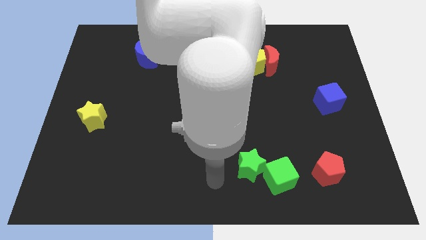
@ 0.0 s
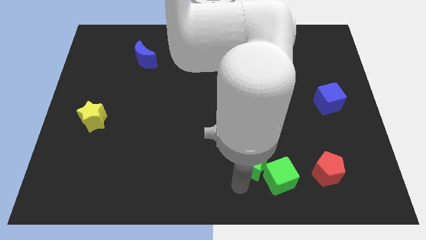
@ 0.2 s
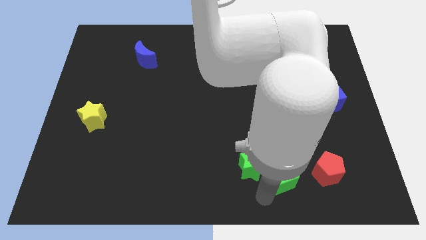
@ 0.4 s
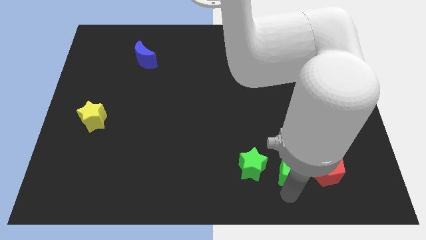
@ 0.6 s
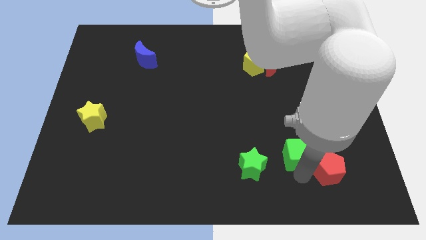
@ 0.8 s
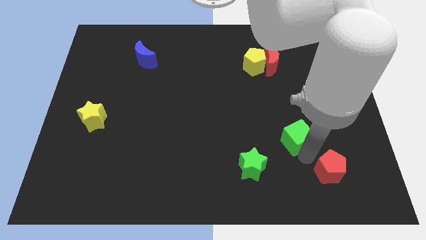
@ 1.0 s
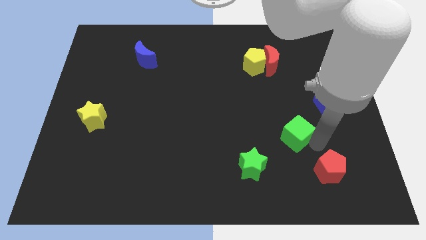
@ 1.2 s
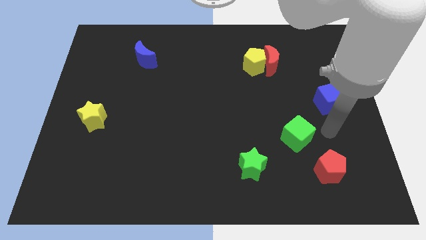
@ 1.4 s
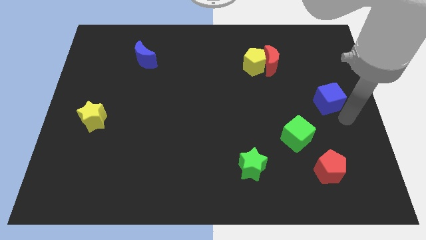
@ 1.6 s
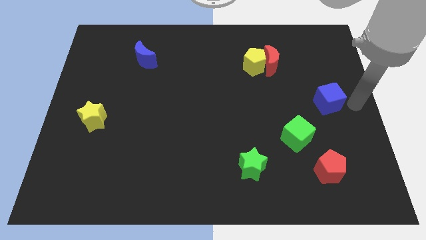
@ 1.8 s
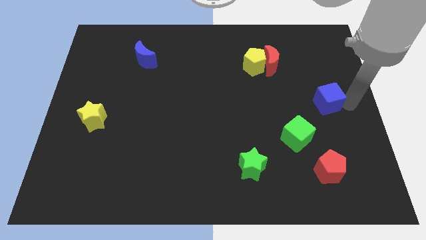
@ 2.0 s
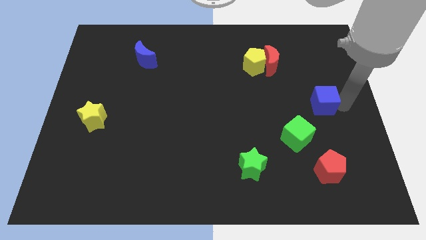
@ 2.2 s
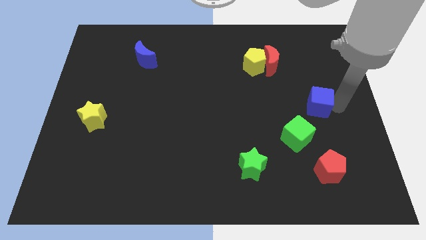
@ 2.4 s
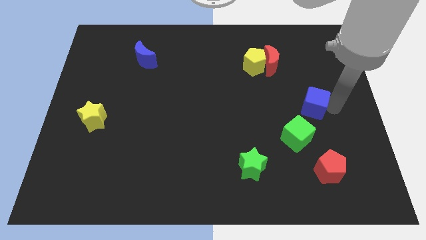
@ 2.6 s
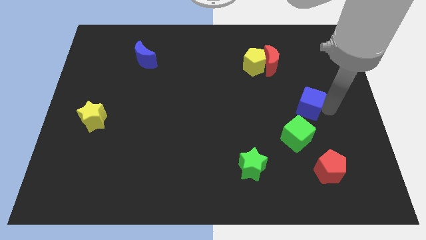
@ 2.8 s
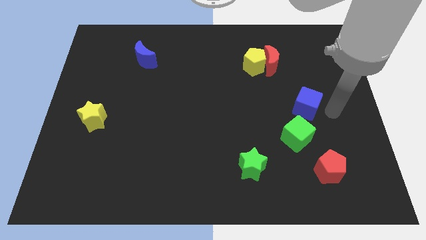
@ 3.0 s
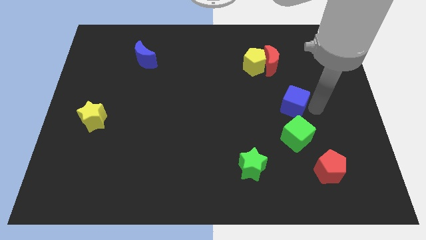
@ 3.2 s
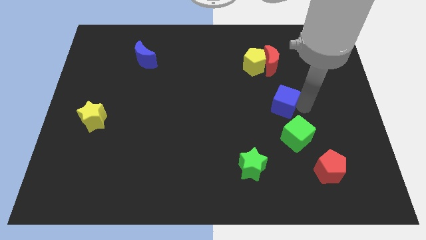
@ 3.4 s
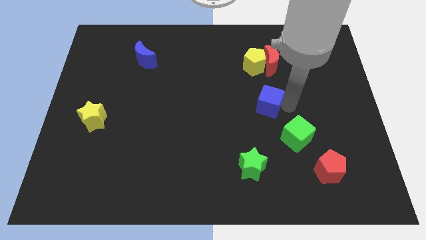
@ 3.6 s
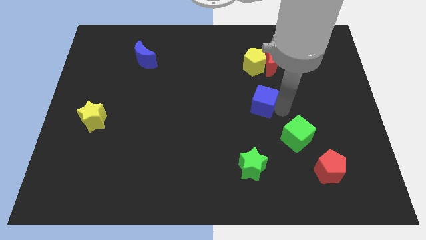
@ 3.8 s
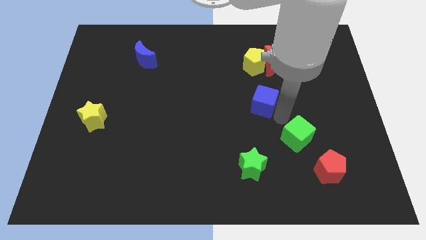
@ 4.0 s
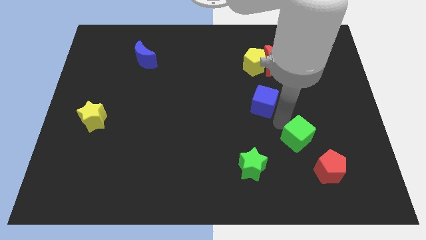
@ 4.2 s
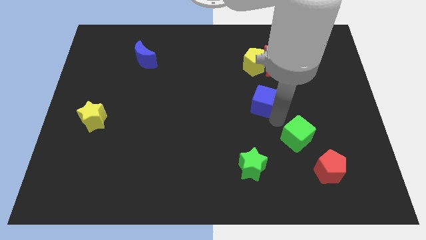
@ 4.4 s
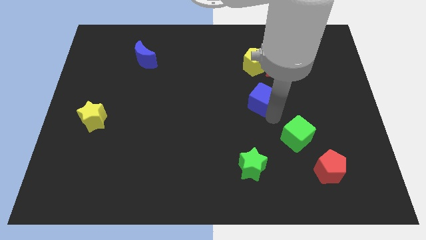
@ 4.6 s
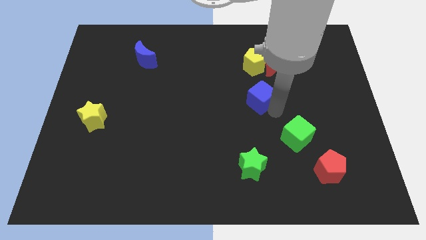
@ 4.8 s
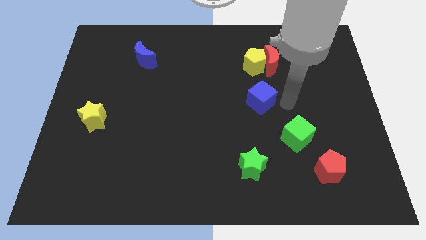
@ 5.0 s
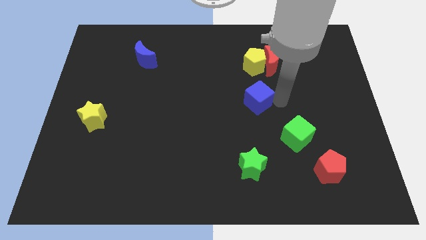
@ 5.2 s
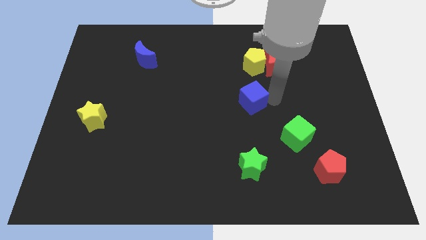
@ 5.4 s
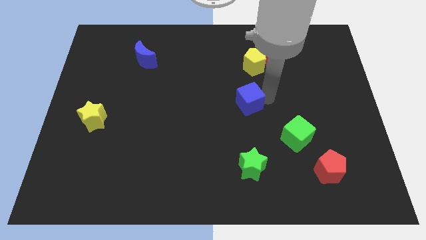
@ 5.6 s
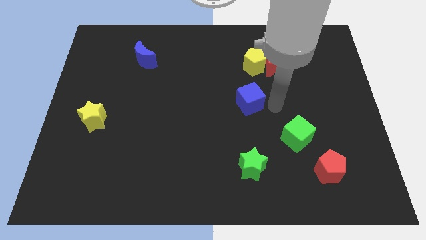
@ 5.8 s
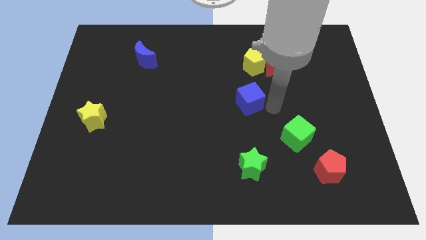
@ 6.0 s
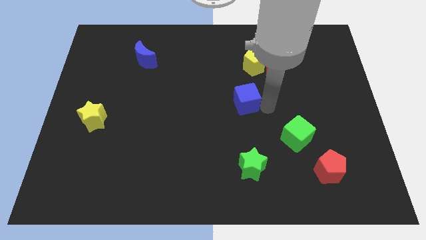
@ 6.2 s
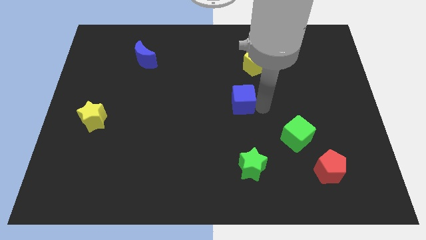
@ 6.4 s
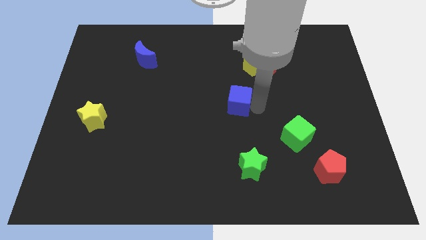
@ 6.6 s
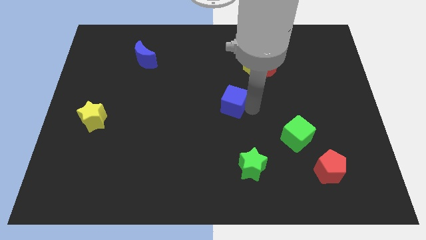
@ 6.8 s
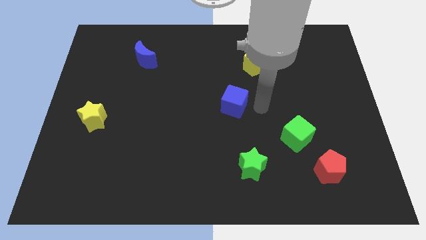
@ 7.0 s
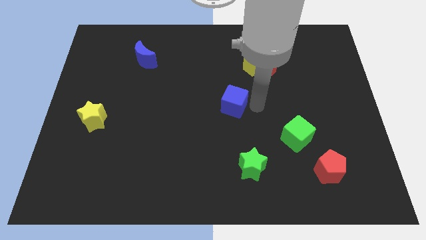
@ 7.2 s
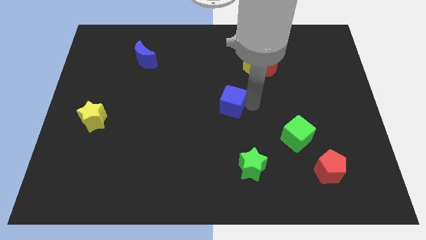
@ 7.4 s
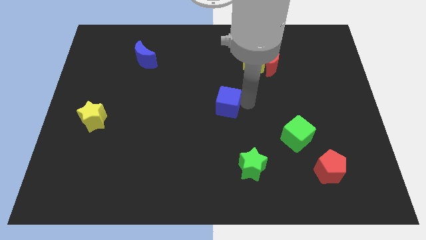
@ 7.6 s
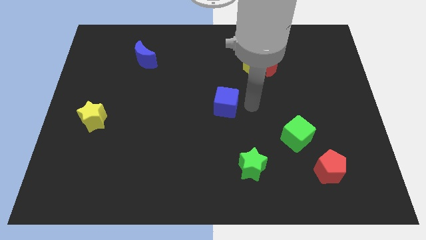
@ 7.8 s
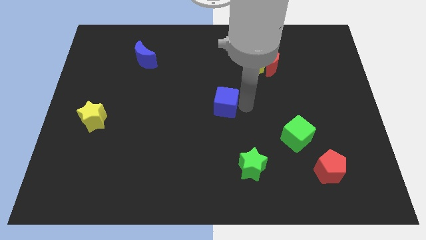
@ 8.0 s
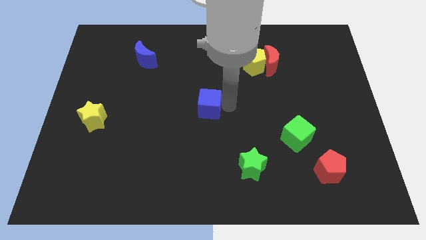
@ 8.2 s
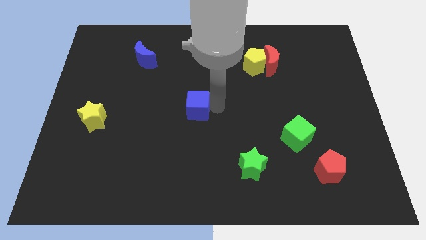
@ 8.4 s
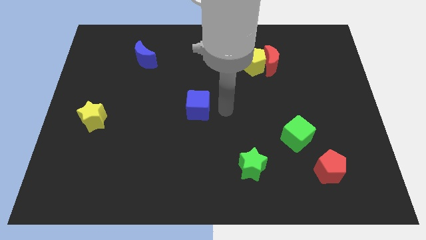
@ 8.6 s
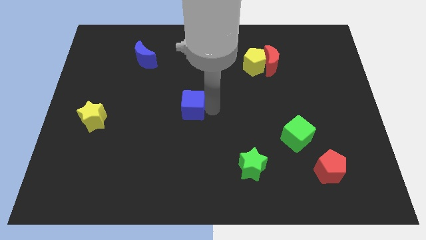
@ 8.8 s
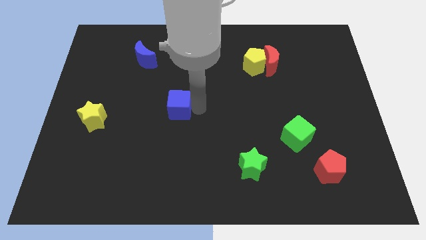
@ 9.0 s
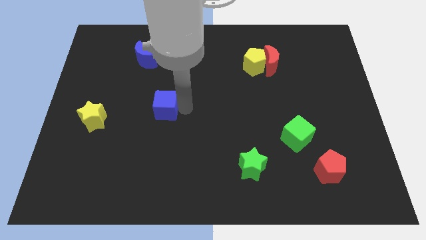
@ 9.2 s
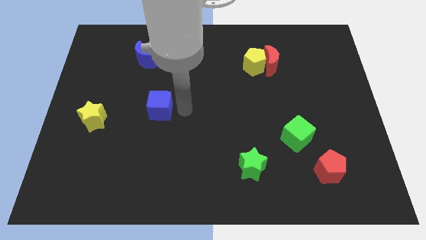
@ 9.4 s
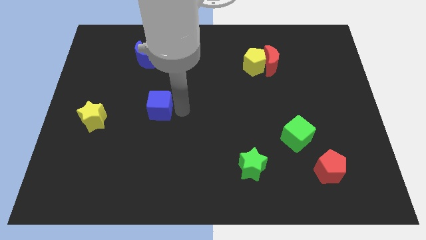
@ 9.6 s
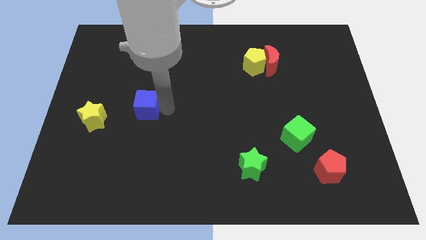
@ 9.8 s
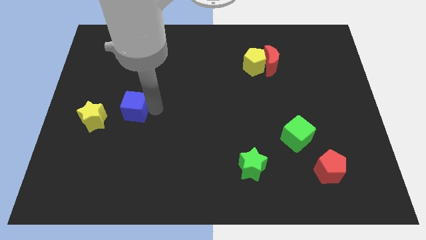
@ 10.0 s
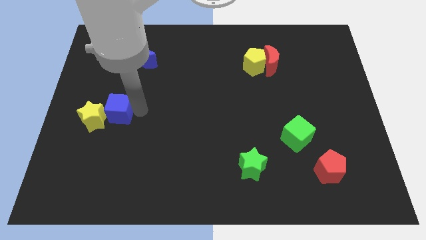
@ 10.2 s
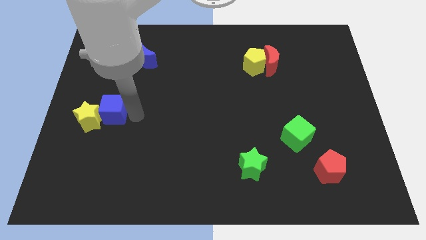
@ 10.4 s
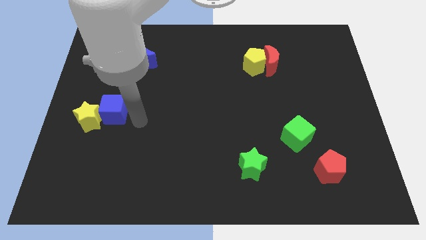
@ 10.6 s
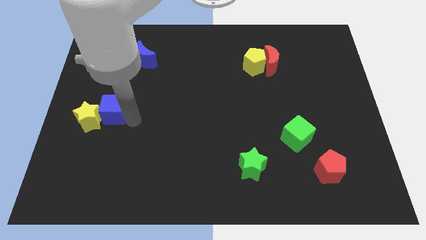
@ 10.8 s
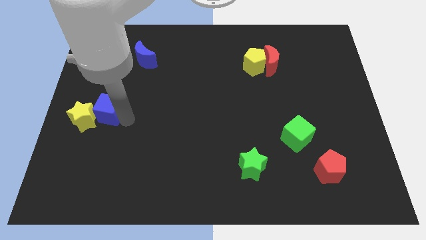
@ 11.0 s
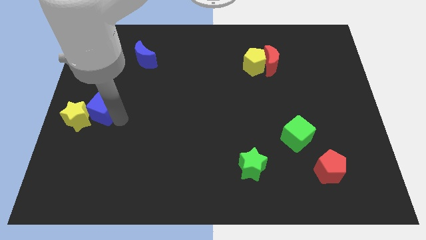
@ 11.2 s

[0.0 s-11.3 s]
push the blue cube to the left side of the board
